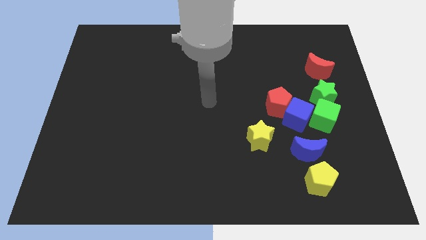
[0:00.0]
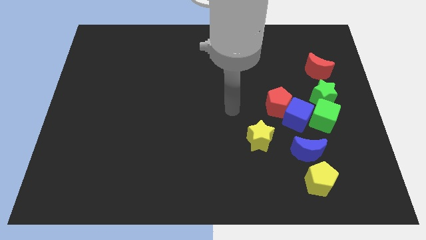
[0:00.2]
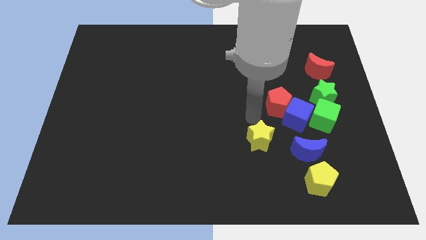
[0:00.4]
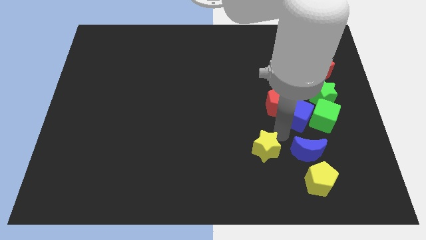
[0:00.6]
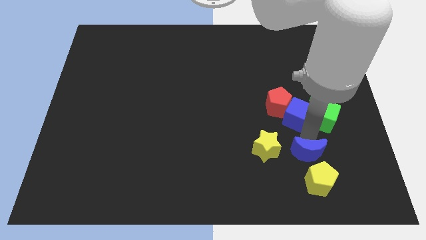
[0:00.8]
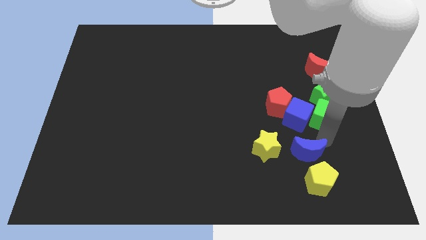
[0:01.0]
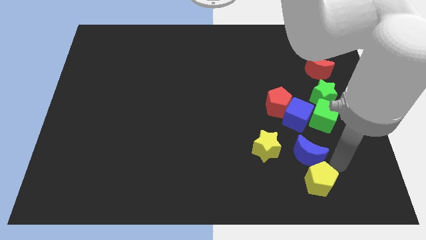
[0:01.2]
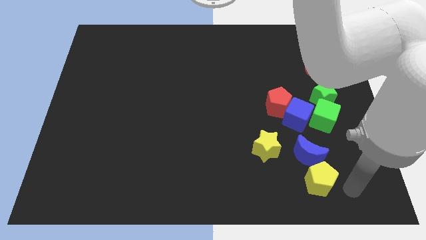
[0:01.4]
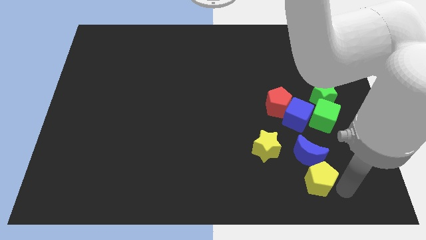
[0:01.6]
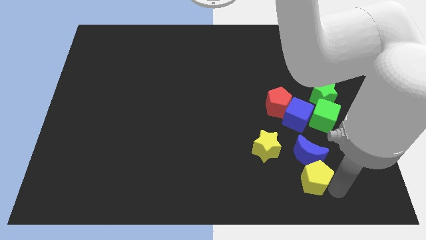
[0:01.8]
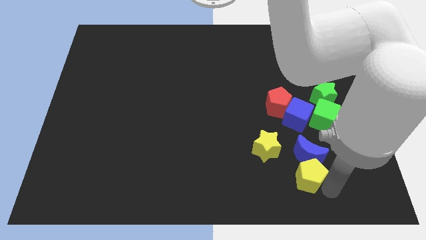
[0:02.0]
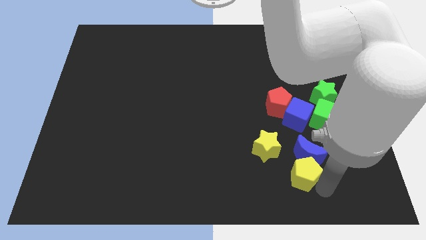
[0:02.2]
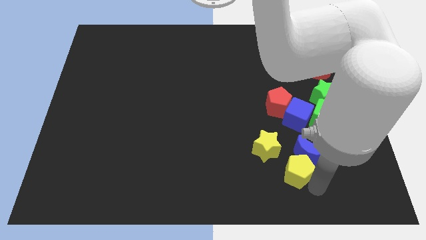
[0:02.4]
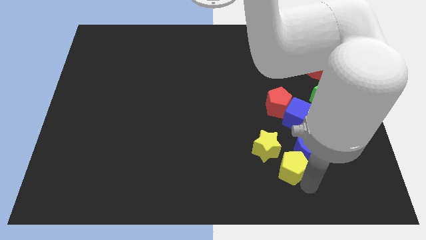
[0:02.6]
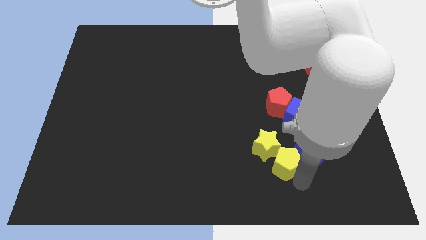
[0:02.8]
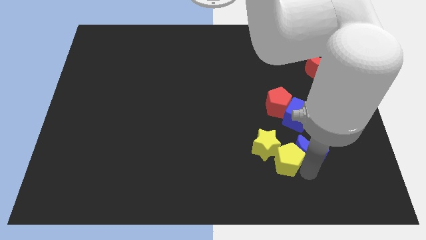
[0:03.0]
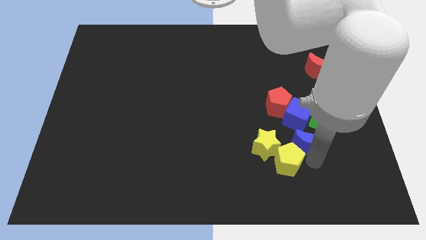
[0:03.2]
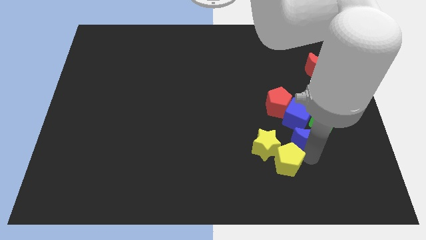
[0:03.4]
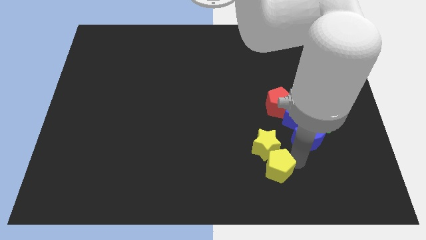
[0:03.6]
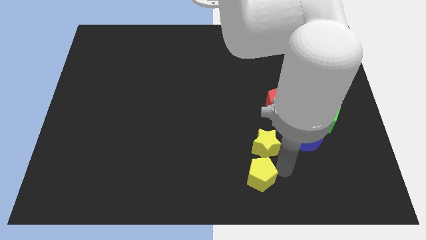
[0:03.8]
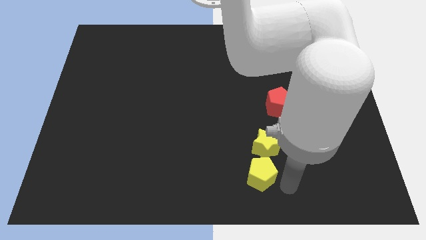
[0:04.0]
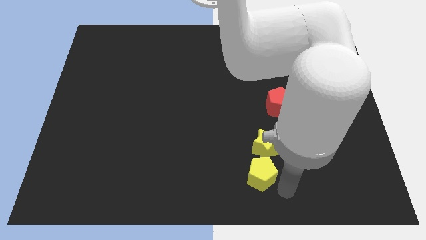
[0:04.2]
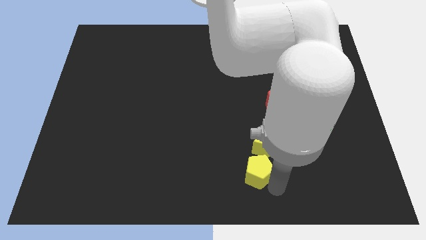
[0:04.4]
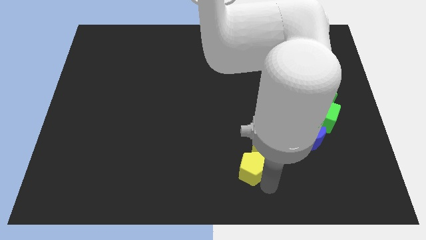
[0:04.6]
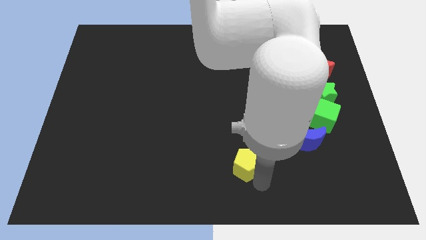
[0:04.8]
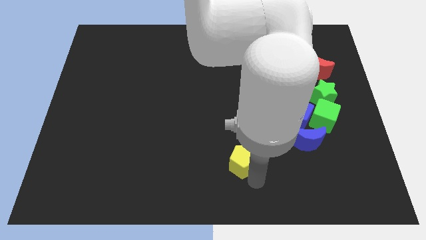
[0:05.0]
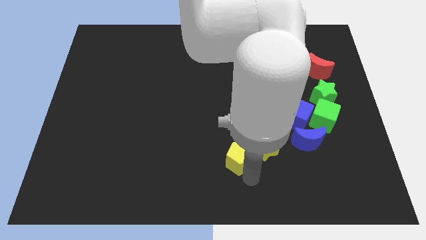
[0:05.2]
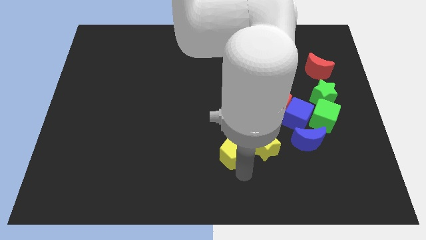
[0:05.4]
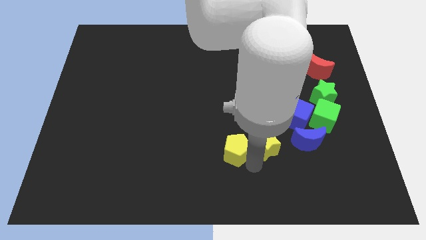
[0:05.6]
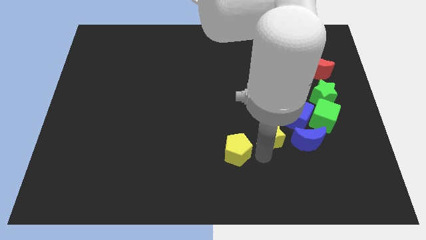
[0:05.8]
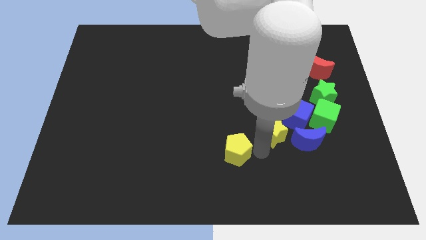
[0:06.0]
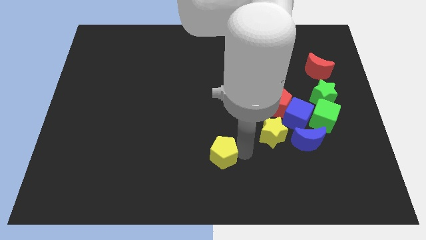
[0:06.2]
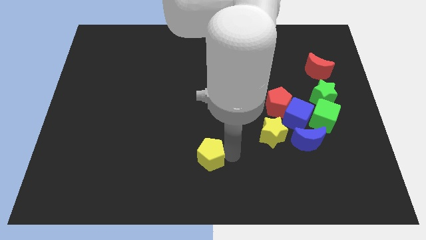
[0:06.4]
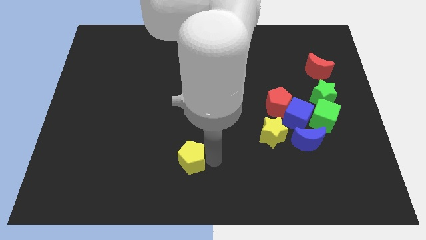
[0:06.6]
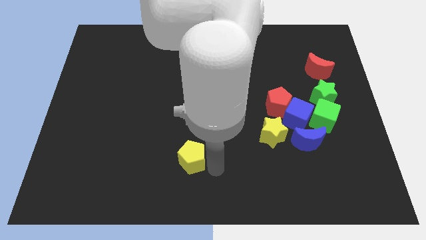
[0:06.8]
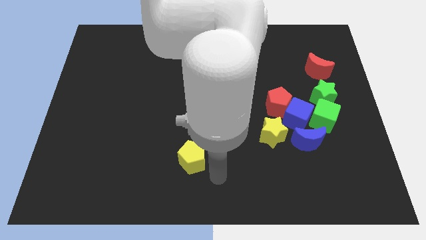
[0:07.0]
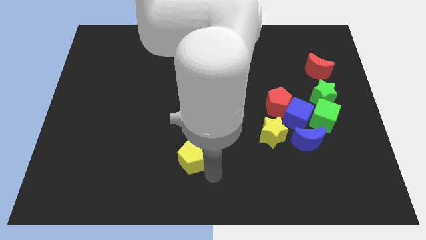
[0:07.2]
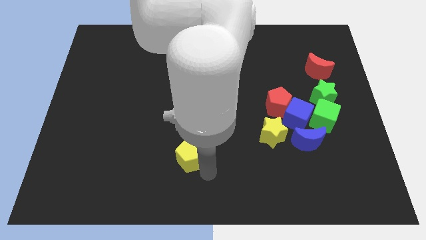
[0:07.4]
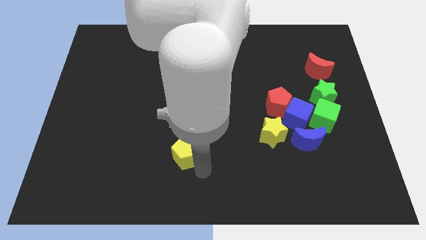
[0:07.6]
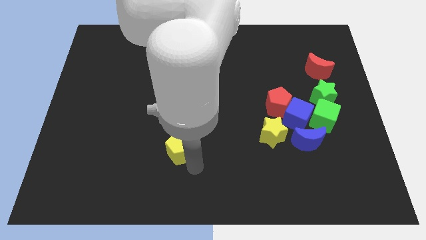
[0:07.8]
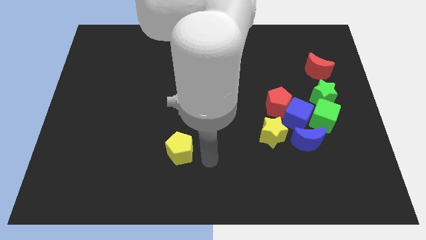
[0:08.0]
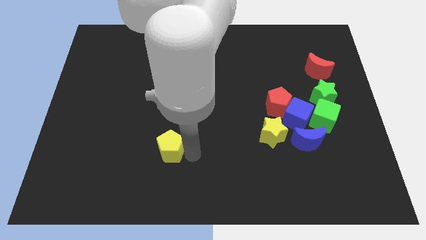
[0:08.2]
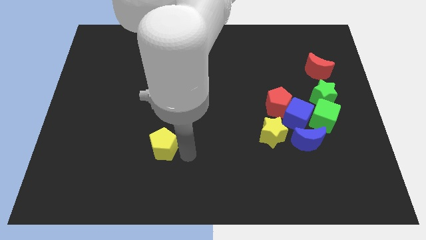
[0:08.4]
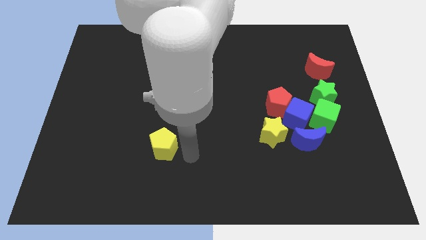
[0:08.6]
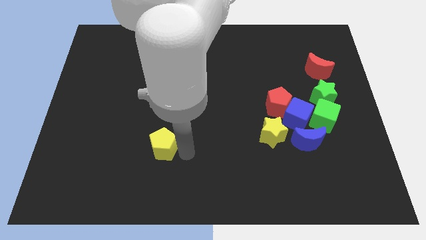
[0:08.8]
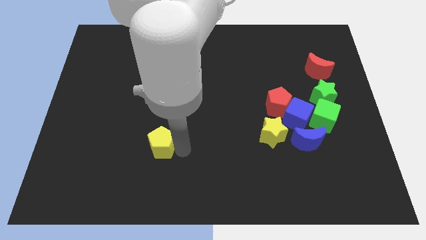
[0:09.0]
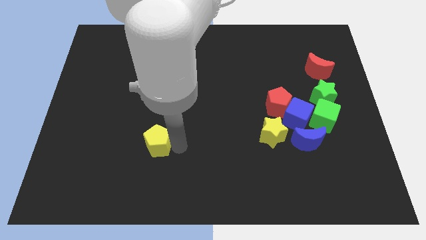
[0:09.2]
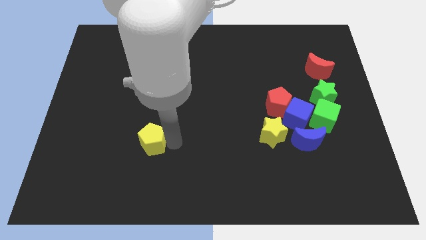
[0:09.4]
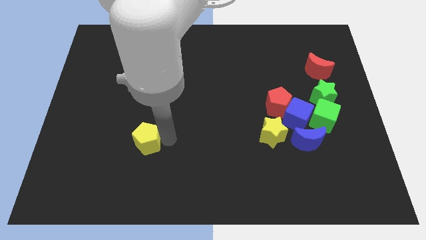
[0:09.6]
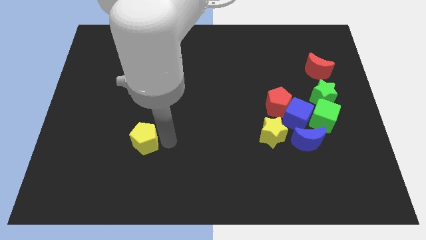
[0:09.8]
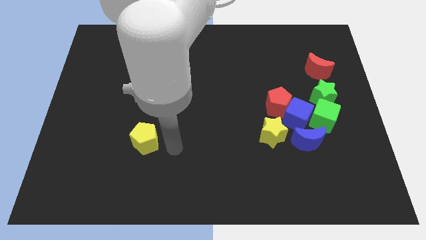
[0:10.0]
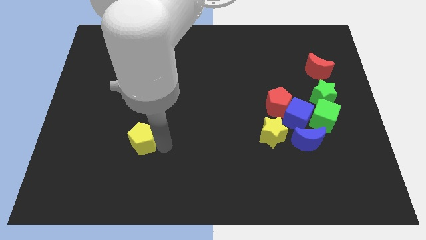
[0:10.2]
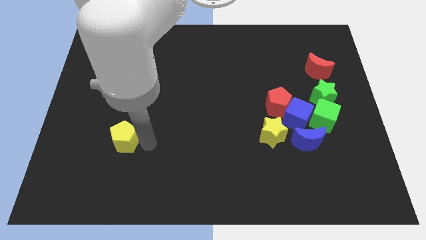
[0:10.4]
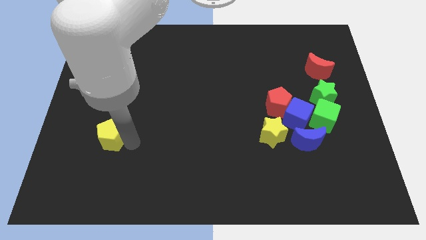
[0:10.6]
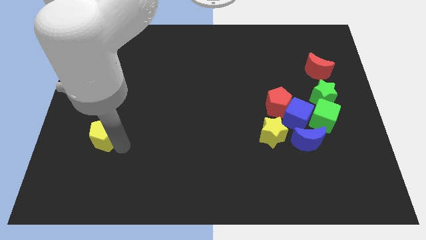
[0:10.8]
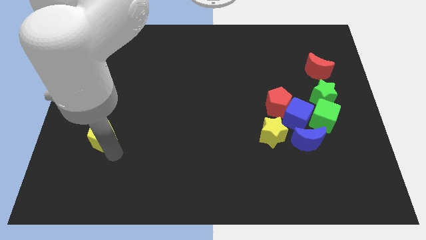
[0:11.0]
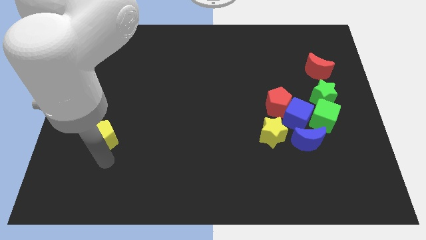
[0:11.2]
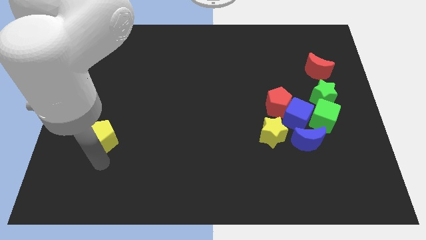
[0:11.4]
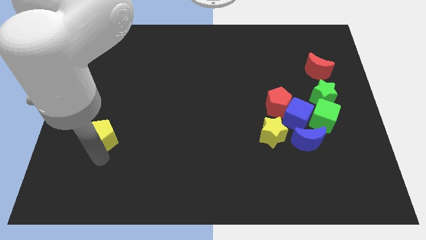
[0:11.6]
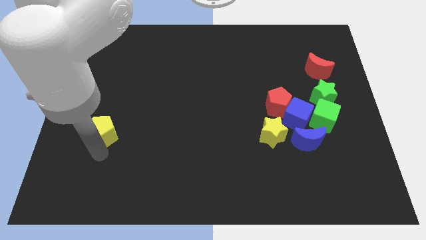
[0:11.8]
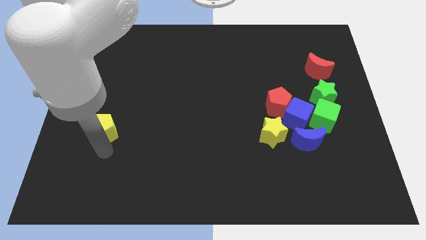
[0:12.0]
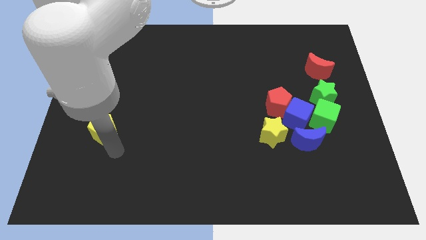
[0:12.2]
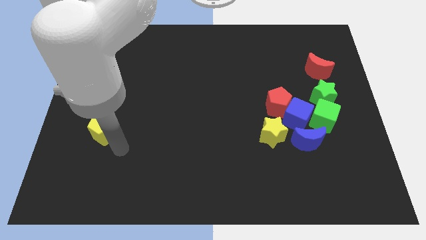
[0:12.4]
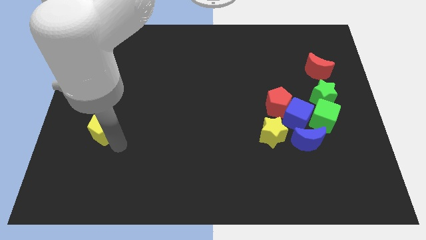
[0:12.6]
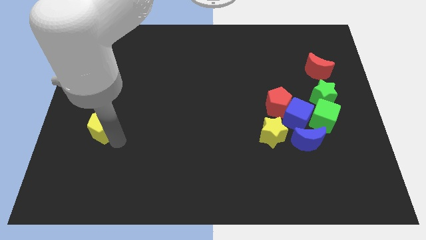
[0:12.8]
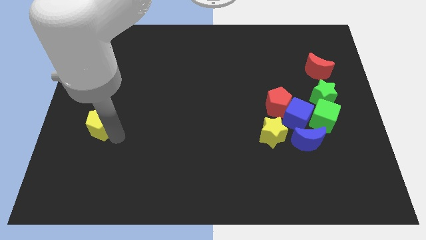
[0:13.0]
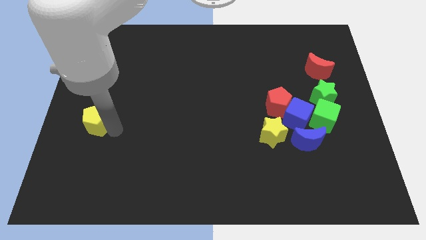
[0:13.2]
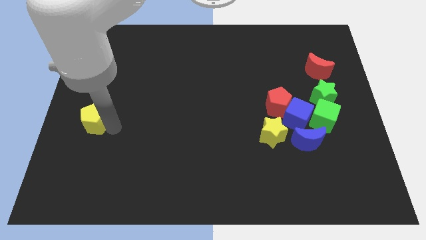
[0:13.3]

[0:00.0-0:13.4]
slide the yellow pentagon to the left side of the board
